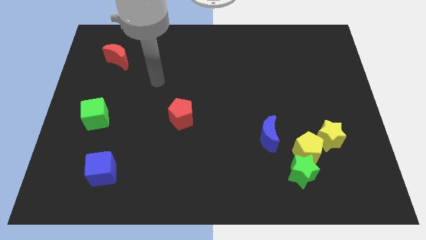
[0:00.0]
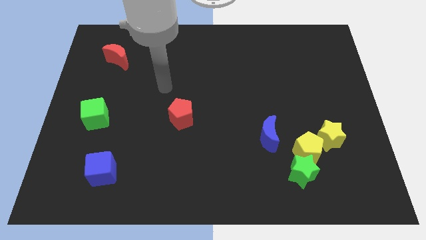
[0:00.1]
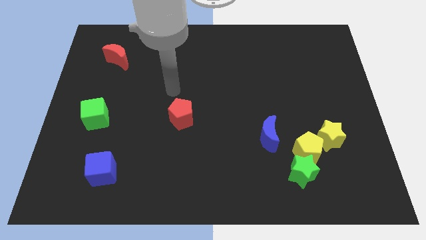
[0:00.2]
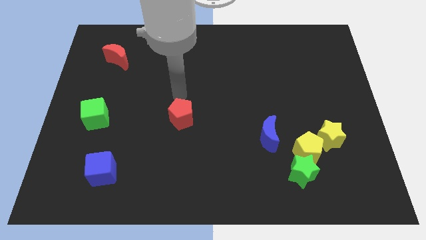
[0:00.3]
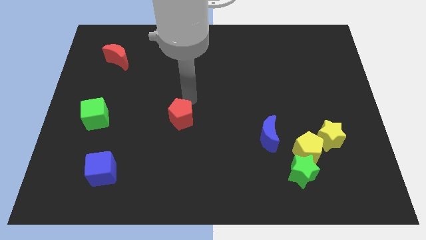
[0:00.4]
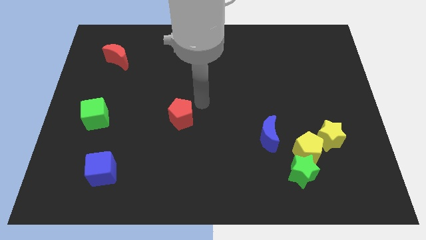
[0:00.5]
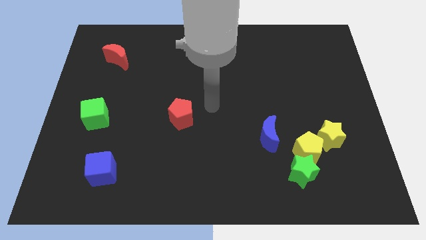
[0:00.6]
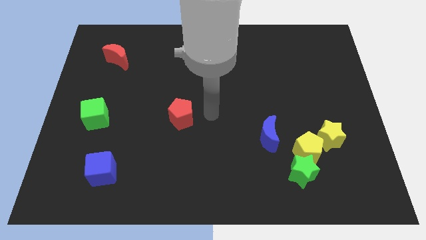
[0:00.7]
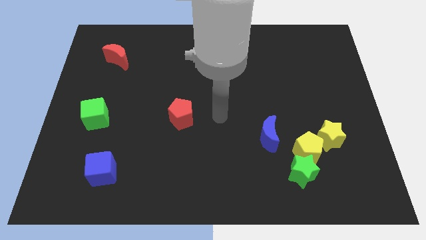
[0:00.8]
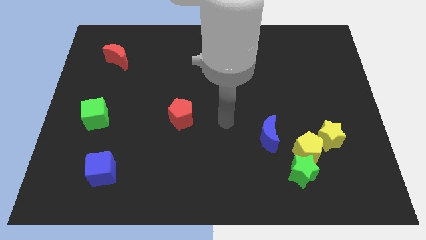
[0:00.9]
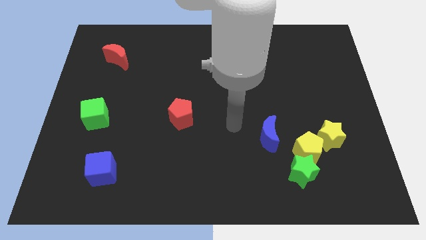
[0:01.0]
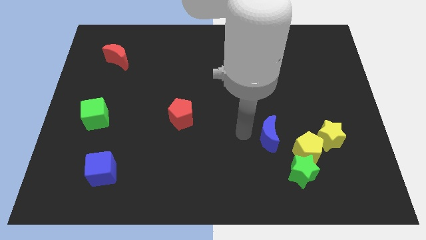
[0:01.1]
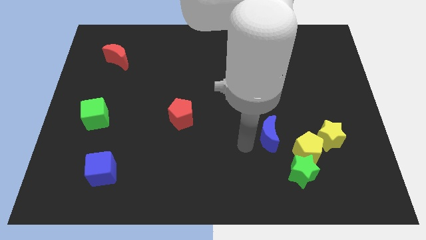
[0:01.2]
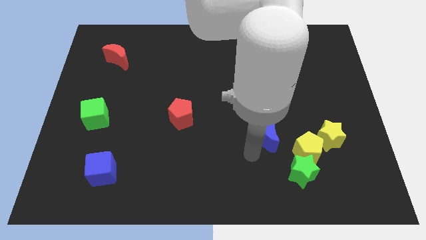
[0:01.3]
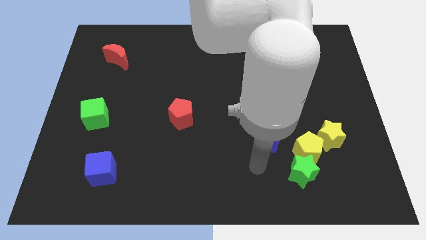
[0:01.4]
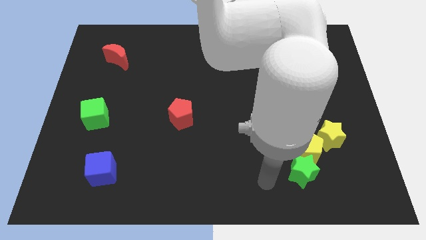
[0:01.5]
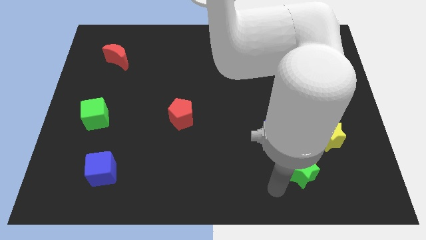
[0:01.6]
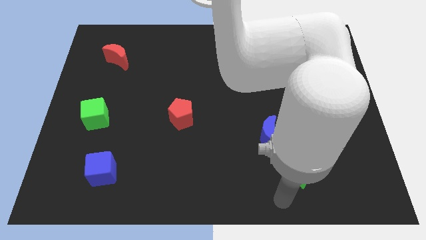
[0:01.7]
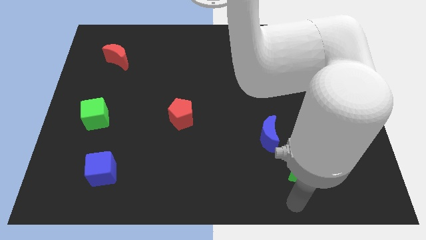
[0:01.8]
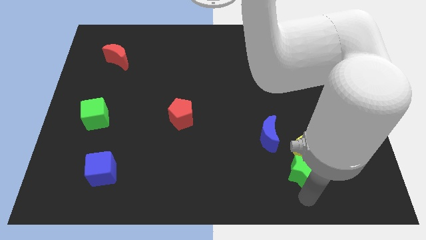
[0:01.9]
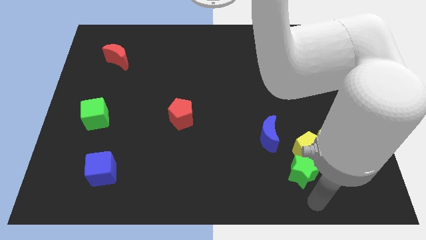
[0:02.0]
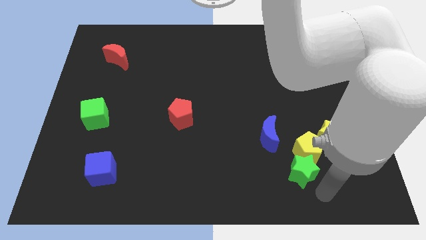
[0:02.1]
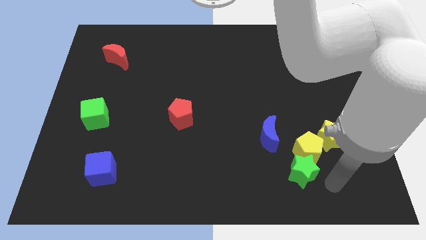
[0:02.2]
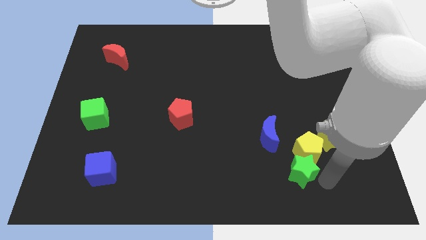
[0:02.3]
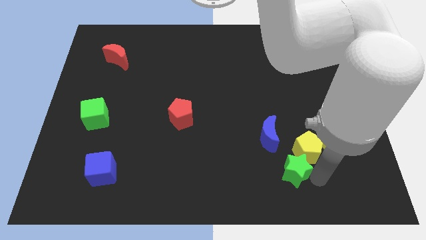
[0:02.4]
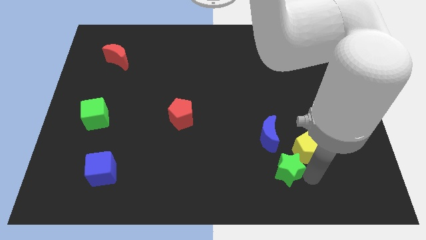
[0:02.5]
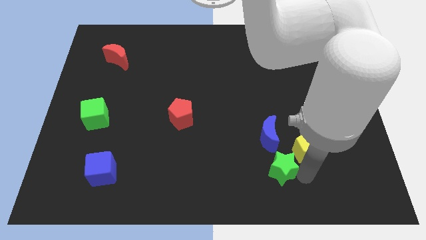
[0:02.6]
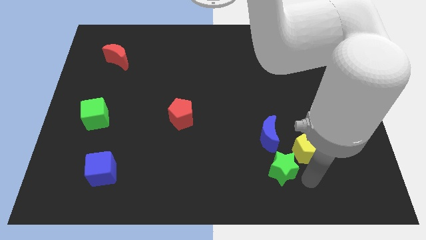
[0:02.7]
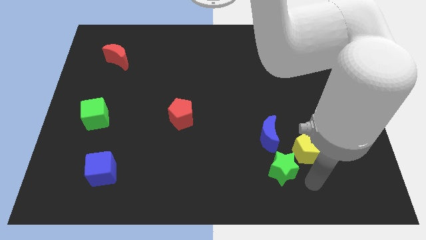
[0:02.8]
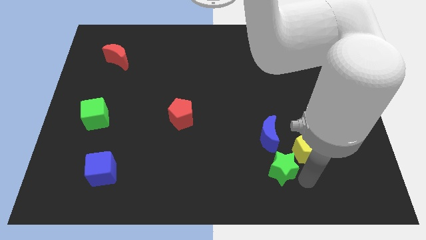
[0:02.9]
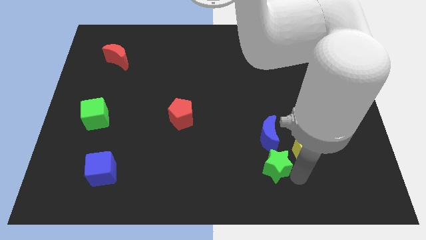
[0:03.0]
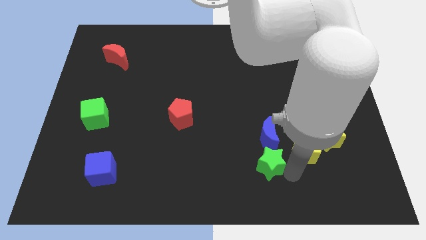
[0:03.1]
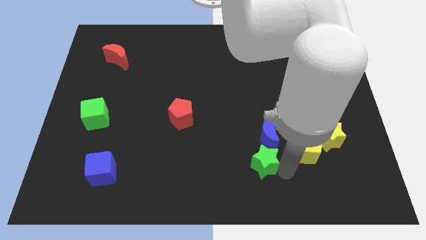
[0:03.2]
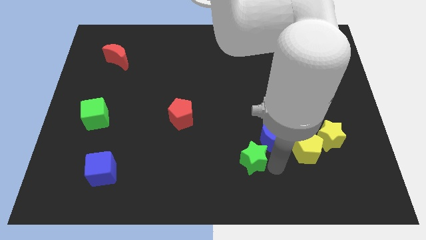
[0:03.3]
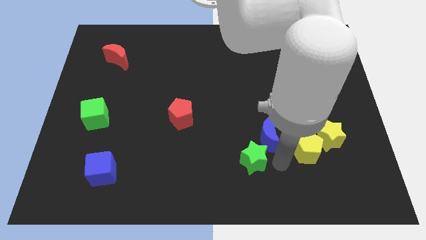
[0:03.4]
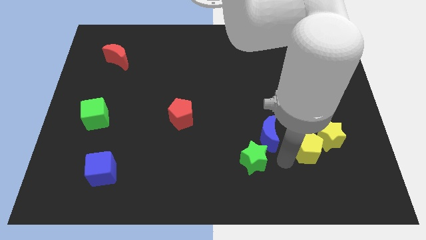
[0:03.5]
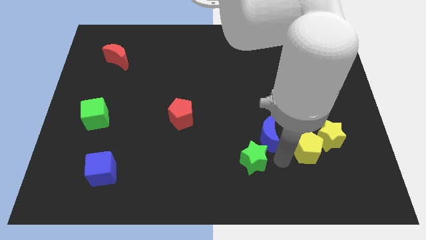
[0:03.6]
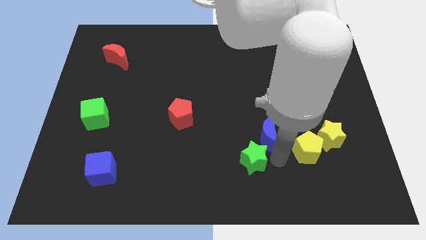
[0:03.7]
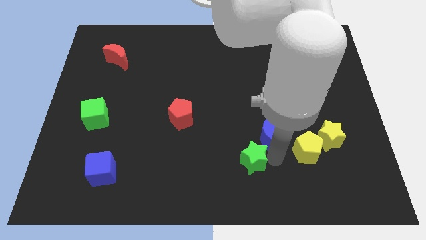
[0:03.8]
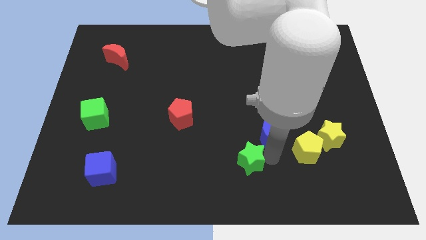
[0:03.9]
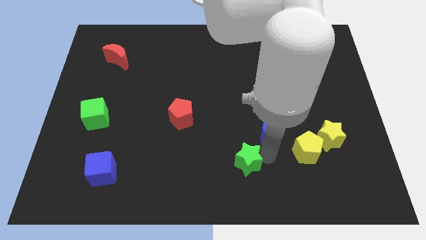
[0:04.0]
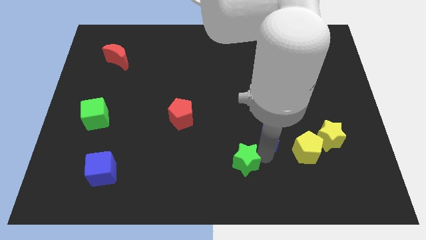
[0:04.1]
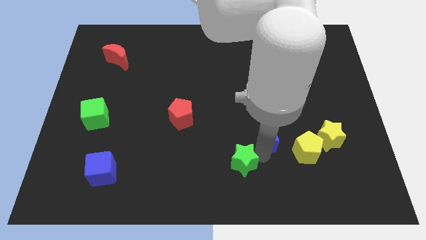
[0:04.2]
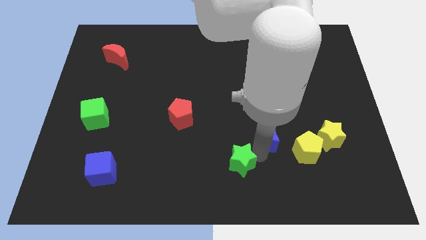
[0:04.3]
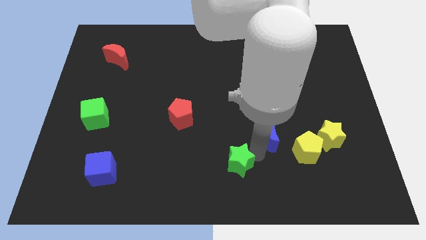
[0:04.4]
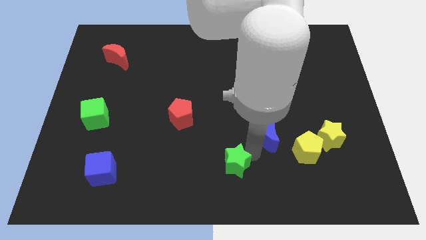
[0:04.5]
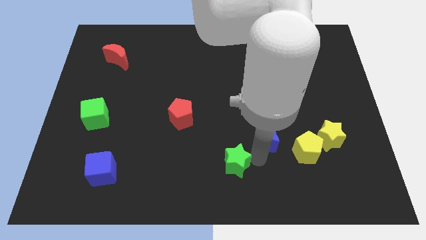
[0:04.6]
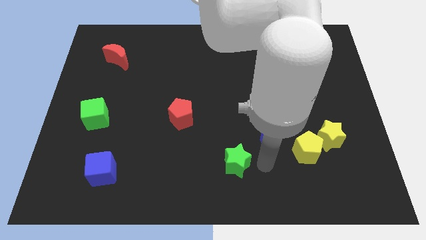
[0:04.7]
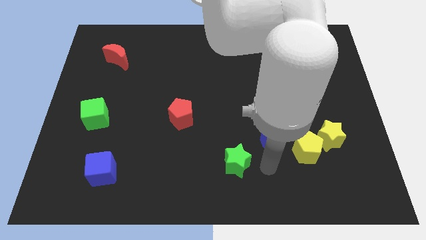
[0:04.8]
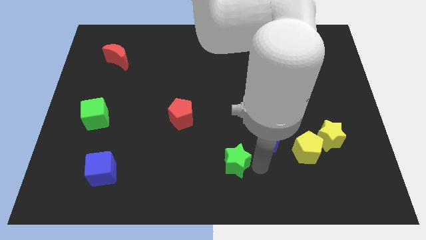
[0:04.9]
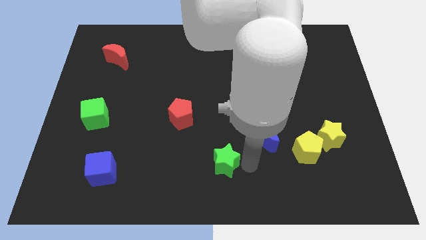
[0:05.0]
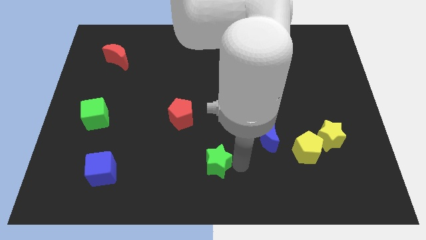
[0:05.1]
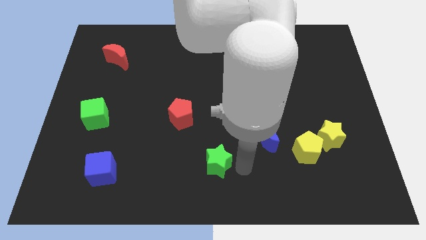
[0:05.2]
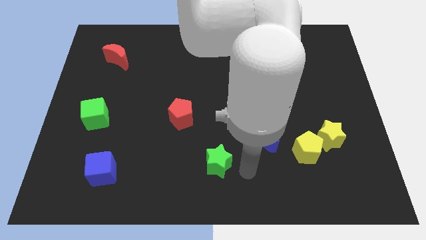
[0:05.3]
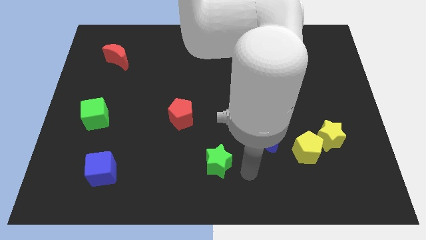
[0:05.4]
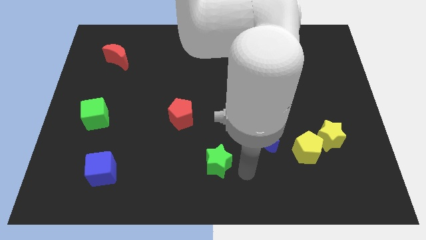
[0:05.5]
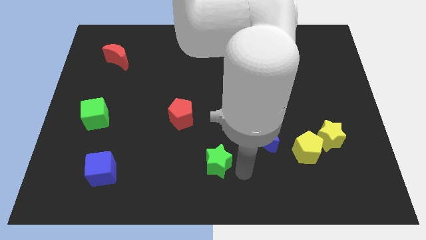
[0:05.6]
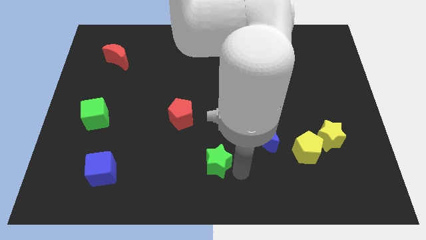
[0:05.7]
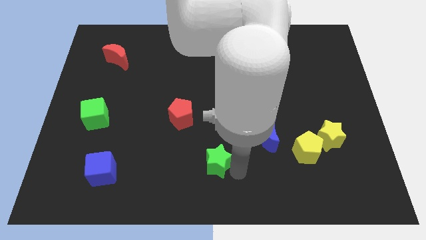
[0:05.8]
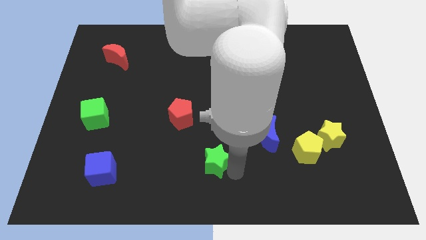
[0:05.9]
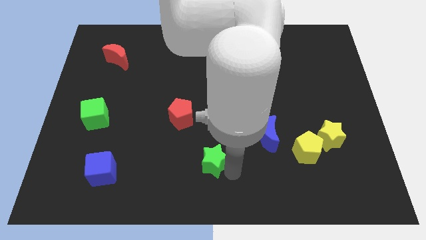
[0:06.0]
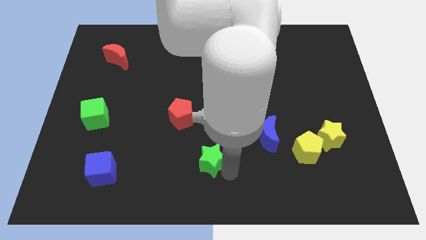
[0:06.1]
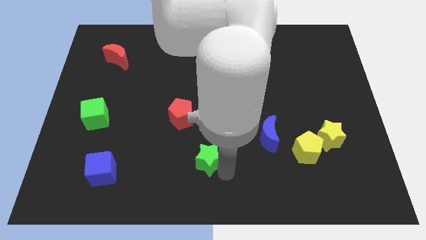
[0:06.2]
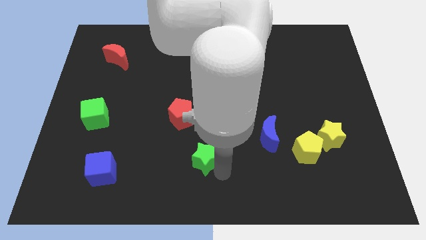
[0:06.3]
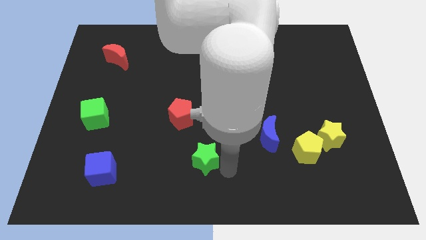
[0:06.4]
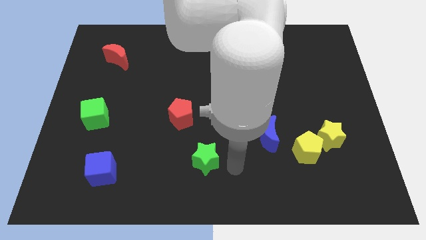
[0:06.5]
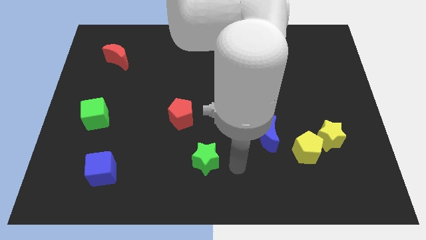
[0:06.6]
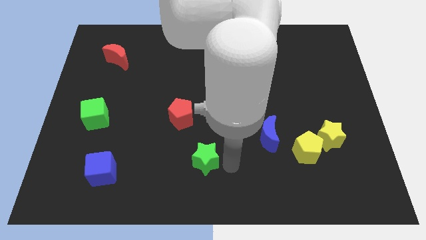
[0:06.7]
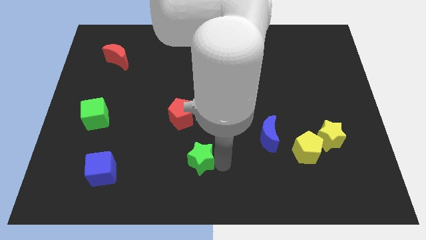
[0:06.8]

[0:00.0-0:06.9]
put the green star to the bottom of the red pentagon

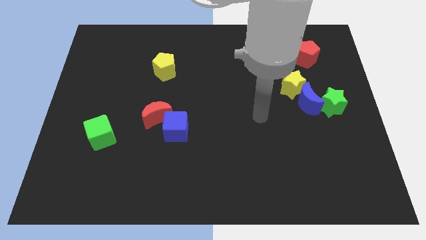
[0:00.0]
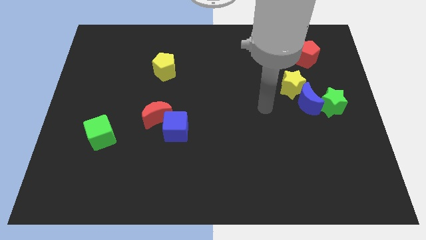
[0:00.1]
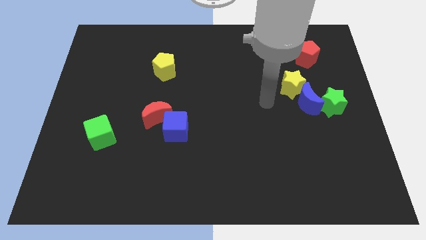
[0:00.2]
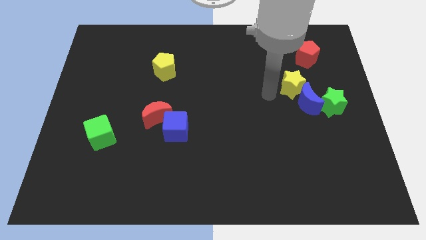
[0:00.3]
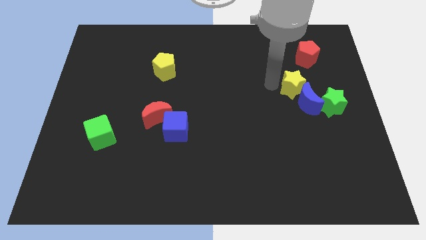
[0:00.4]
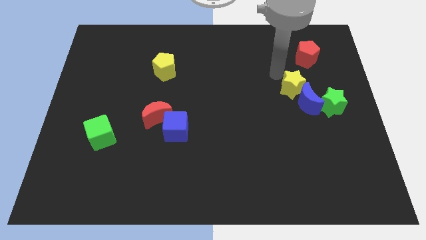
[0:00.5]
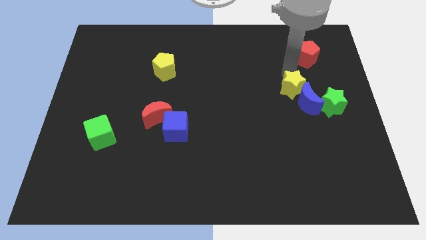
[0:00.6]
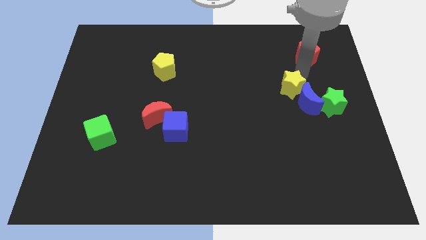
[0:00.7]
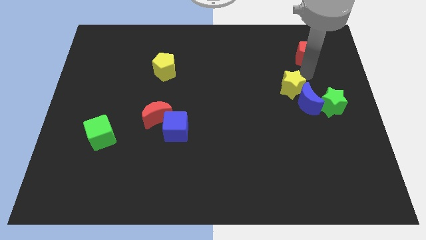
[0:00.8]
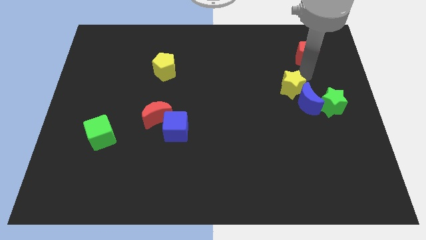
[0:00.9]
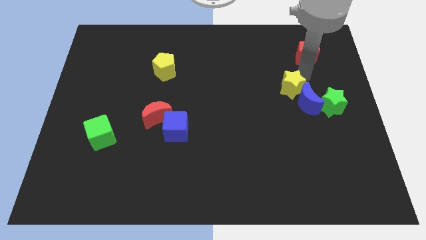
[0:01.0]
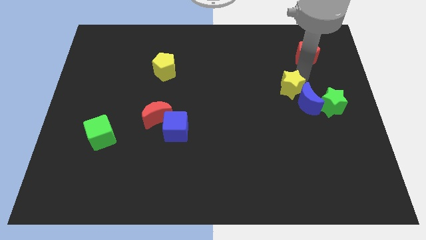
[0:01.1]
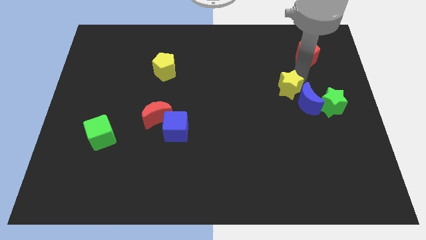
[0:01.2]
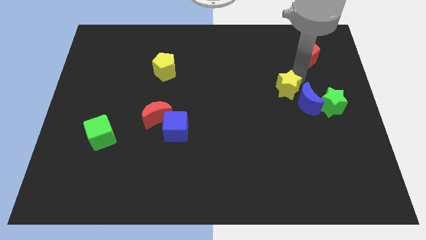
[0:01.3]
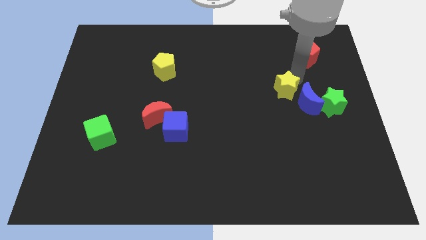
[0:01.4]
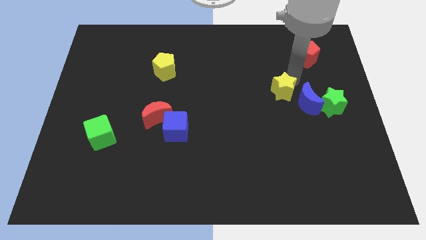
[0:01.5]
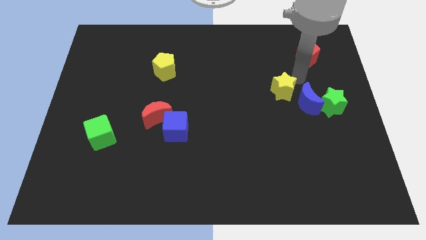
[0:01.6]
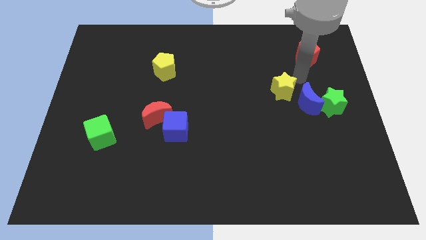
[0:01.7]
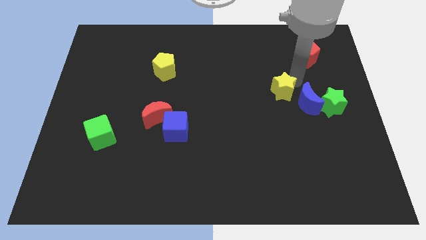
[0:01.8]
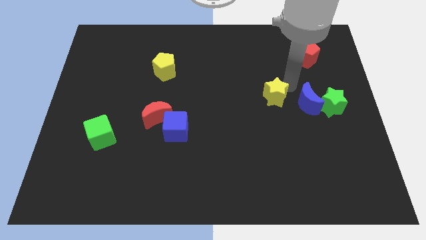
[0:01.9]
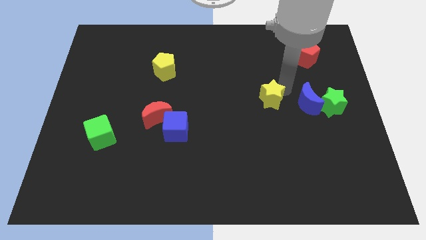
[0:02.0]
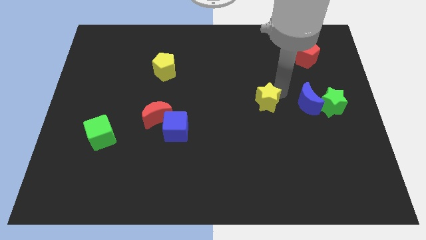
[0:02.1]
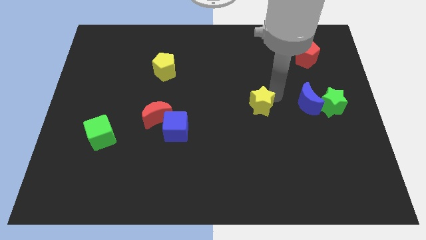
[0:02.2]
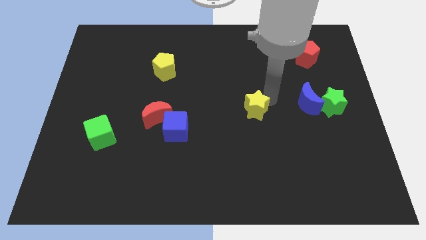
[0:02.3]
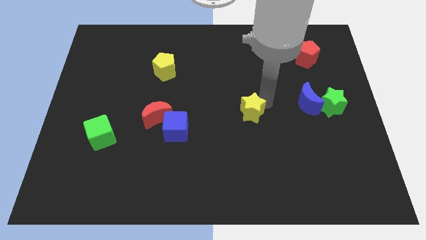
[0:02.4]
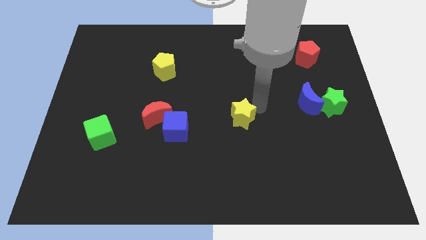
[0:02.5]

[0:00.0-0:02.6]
move the yellow star just right of the blue cube
